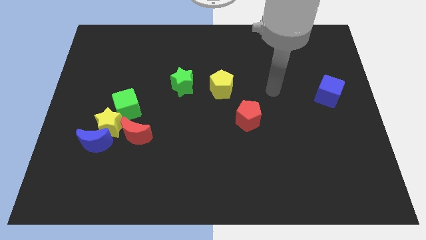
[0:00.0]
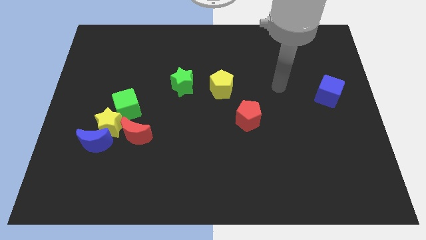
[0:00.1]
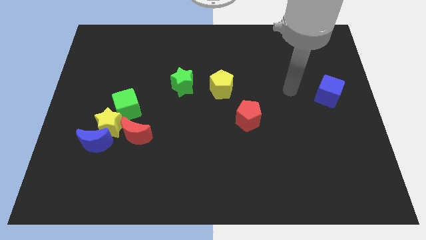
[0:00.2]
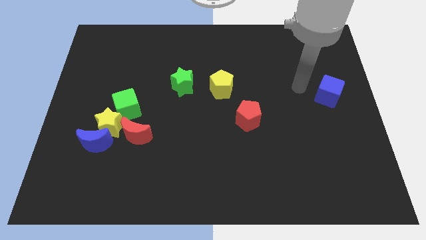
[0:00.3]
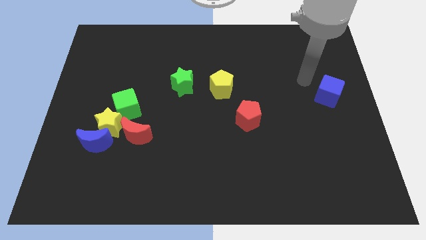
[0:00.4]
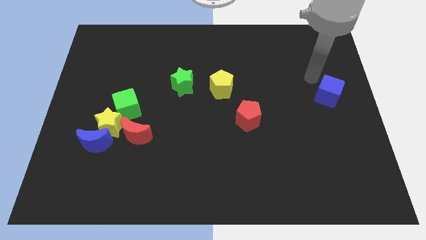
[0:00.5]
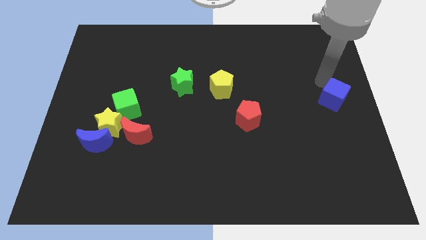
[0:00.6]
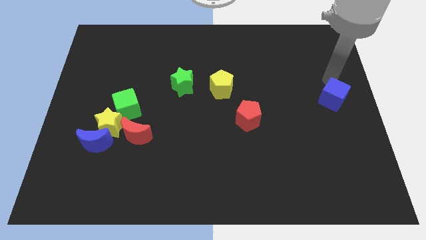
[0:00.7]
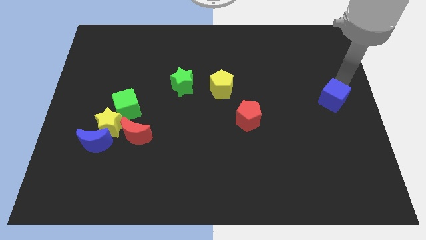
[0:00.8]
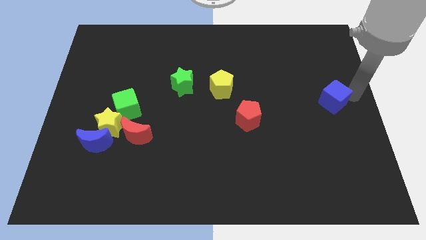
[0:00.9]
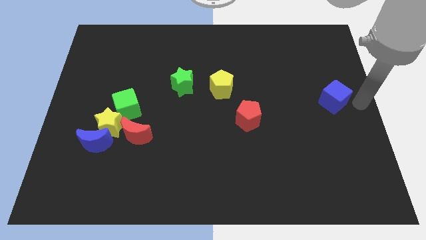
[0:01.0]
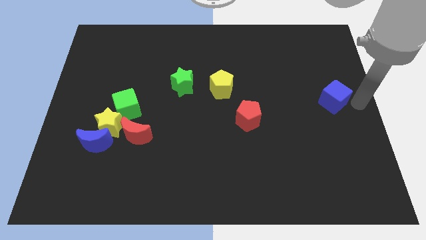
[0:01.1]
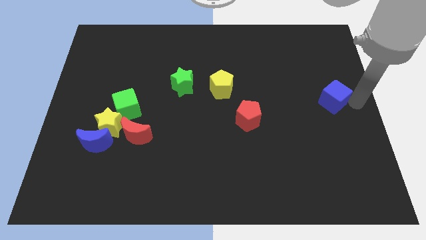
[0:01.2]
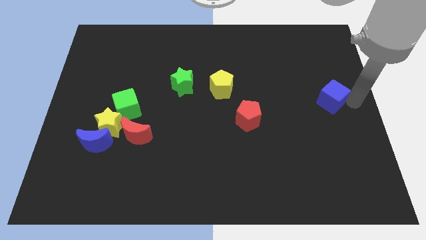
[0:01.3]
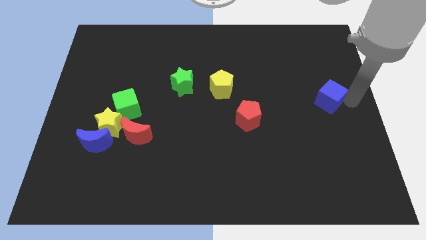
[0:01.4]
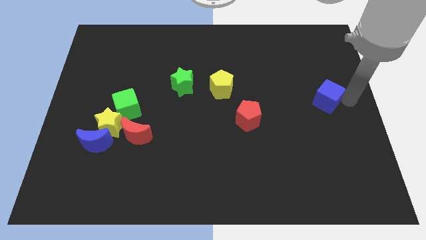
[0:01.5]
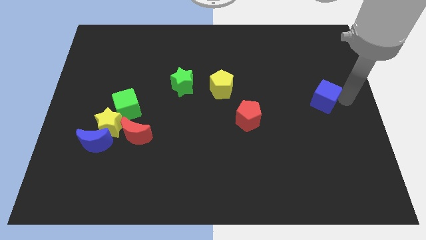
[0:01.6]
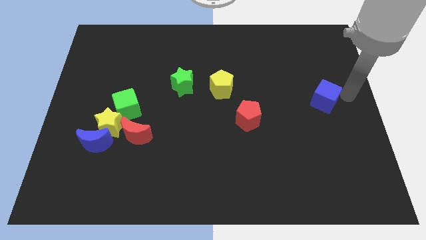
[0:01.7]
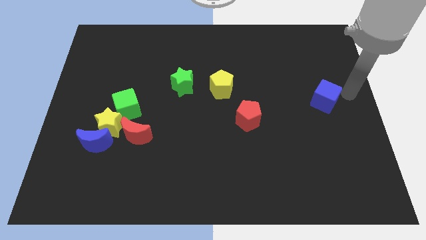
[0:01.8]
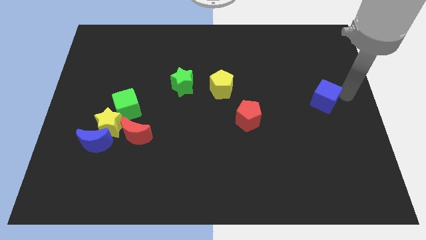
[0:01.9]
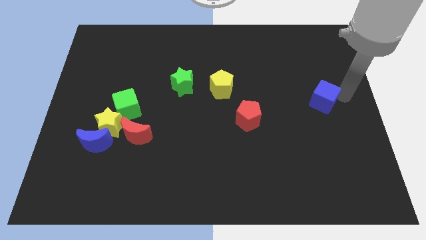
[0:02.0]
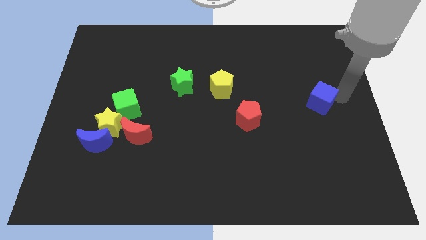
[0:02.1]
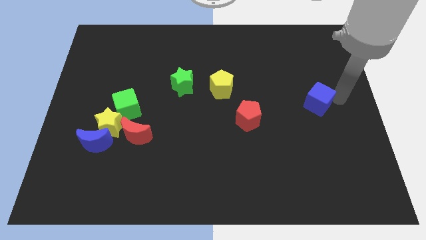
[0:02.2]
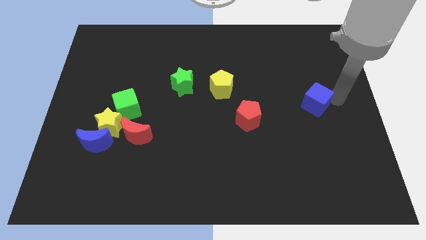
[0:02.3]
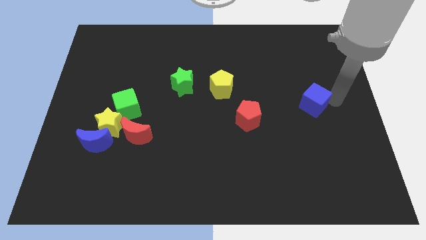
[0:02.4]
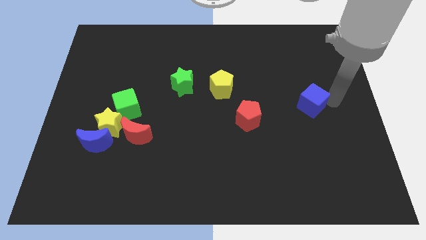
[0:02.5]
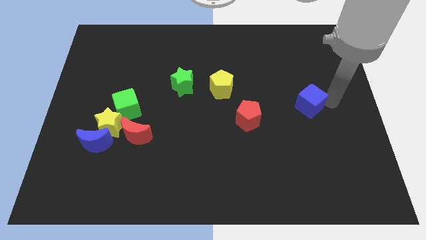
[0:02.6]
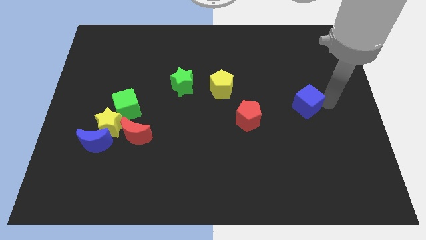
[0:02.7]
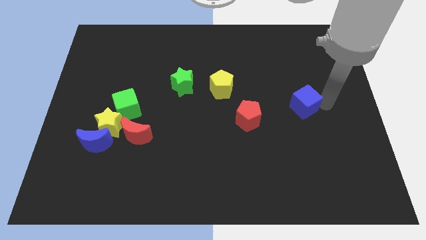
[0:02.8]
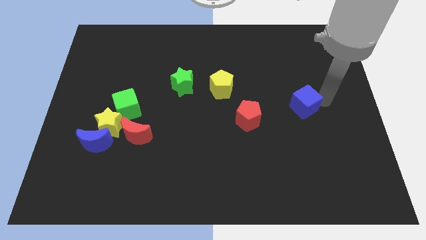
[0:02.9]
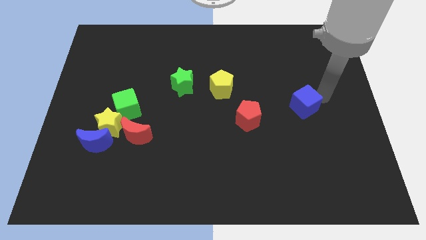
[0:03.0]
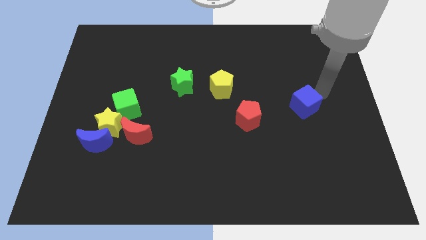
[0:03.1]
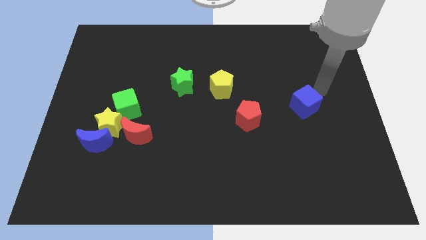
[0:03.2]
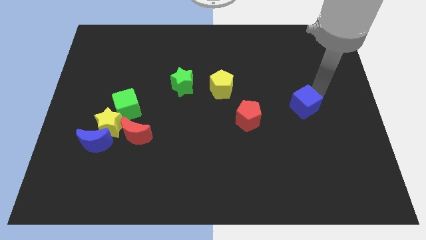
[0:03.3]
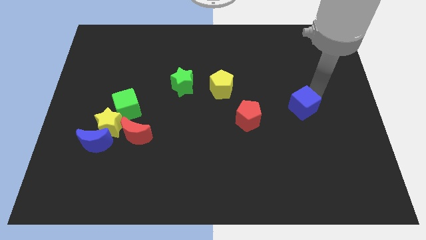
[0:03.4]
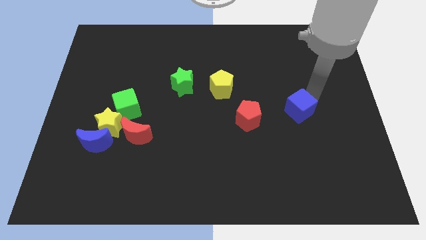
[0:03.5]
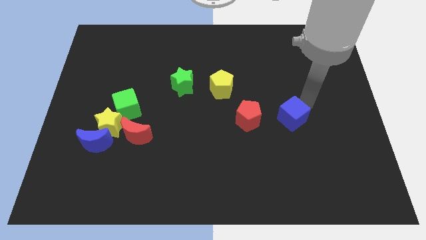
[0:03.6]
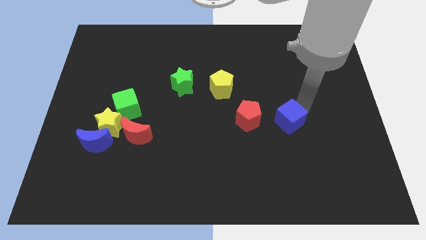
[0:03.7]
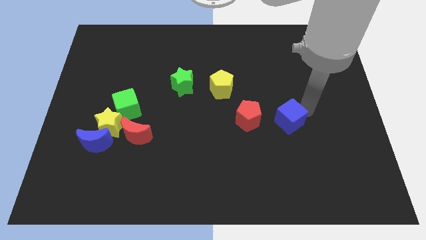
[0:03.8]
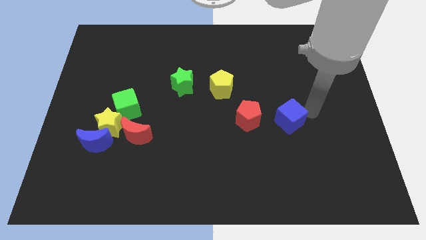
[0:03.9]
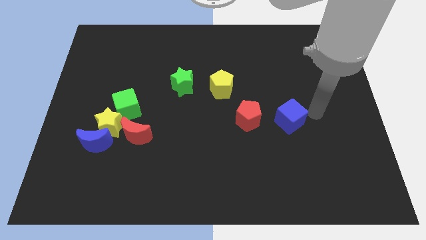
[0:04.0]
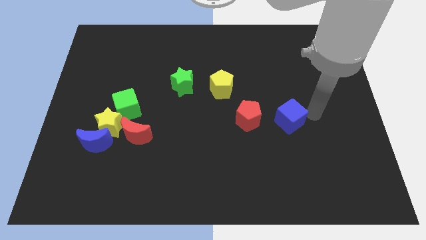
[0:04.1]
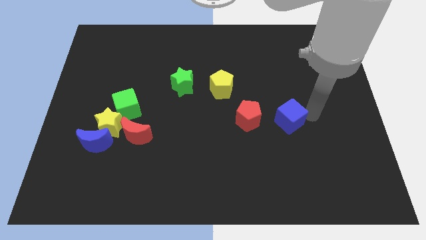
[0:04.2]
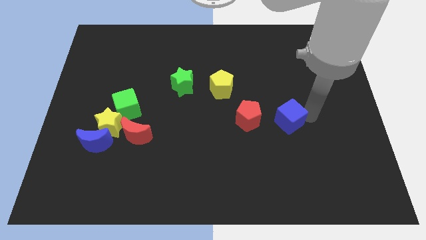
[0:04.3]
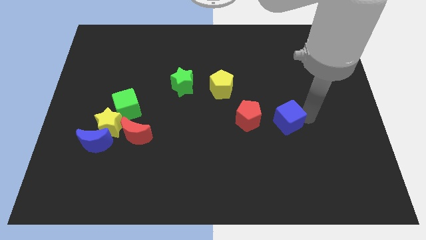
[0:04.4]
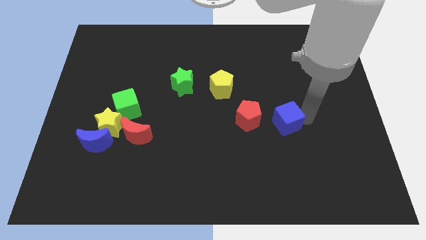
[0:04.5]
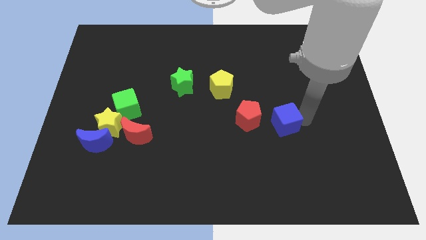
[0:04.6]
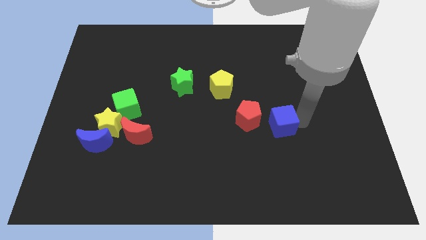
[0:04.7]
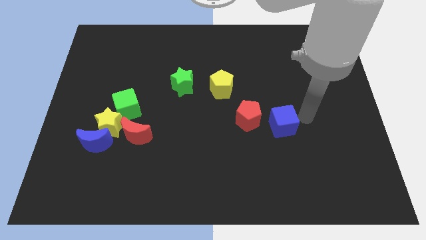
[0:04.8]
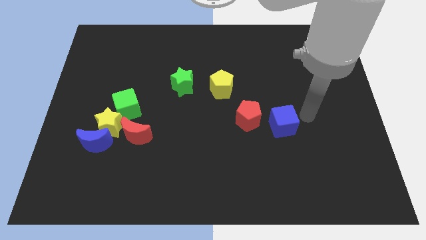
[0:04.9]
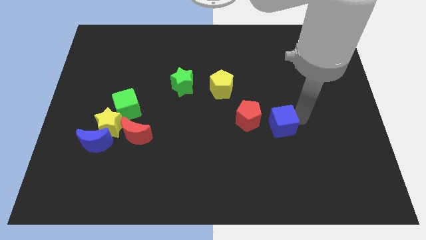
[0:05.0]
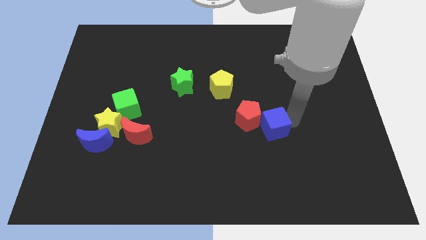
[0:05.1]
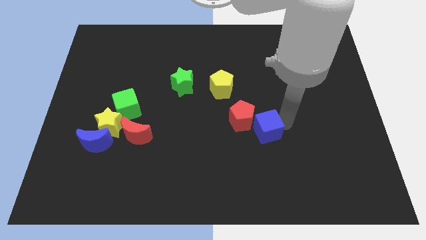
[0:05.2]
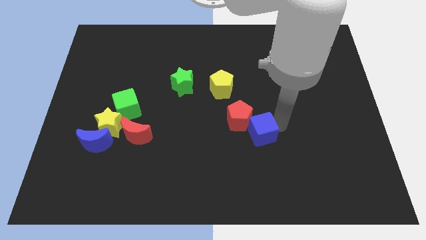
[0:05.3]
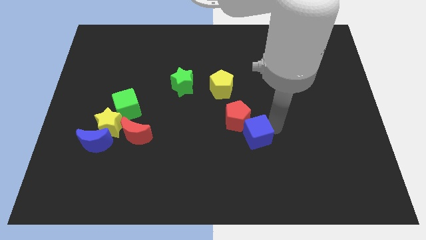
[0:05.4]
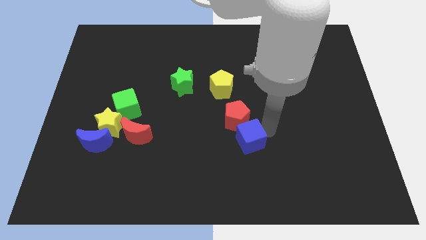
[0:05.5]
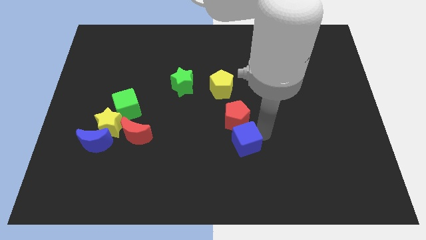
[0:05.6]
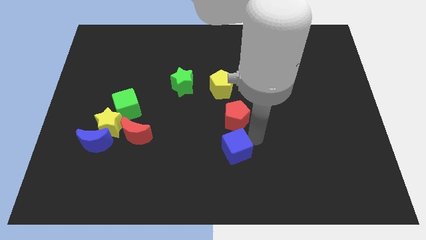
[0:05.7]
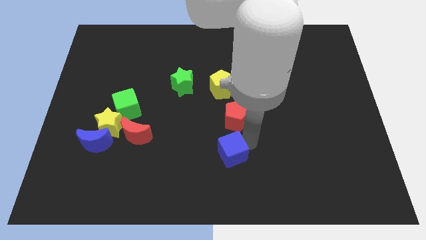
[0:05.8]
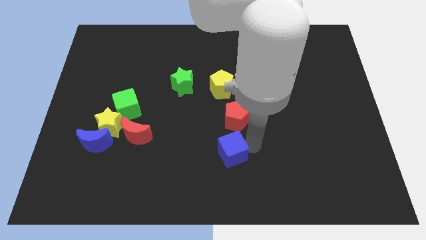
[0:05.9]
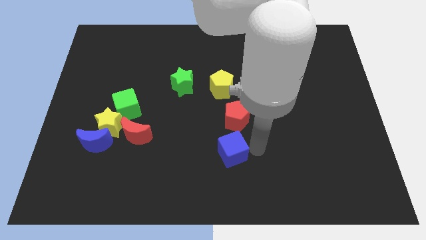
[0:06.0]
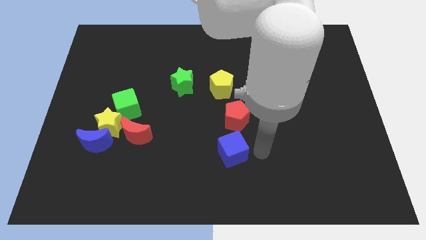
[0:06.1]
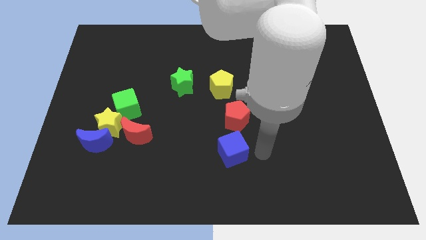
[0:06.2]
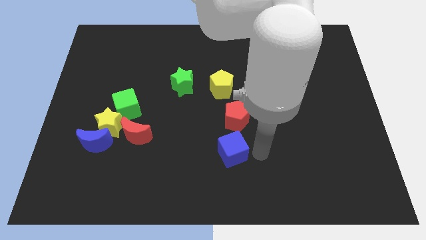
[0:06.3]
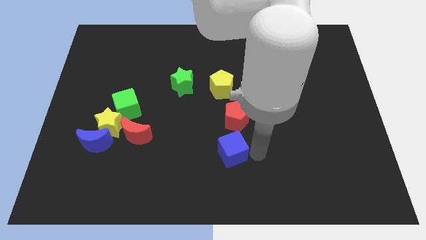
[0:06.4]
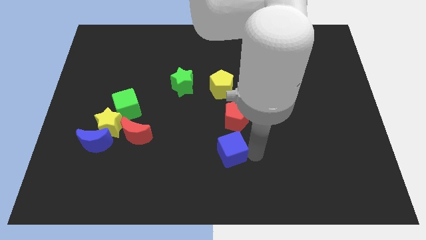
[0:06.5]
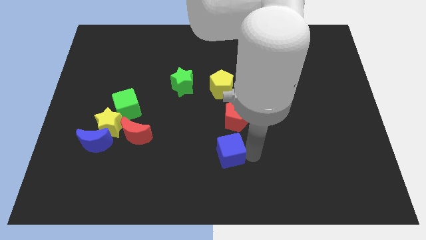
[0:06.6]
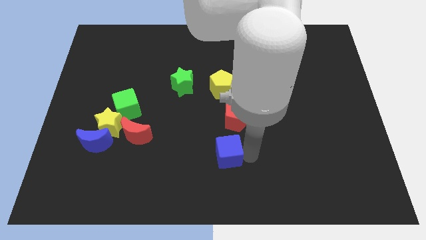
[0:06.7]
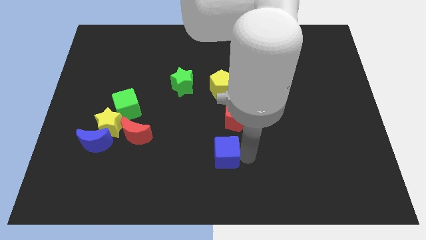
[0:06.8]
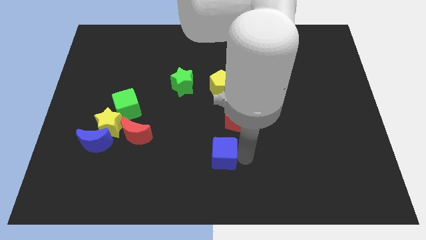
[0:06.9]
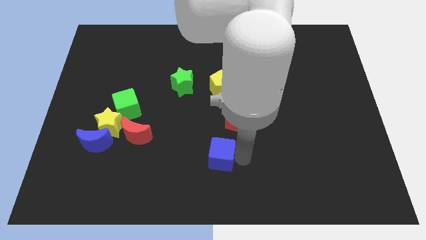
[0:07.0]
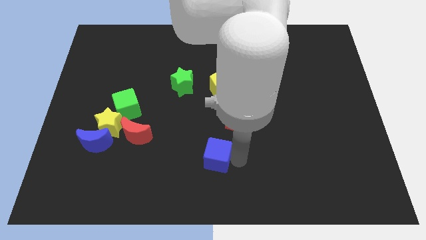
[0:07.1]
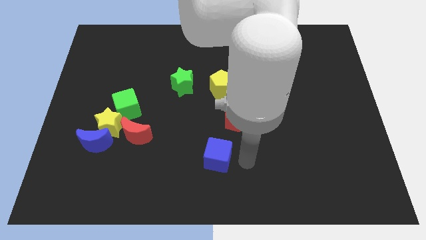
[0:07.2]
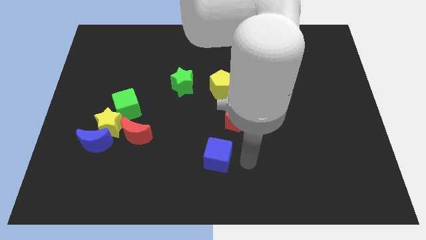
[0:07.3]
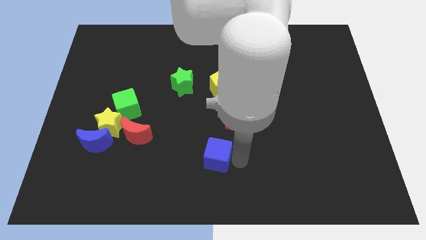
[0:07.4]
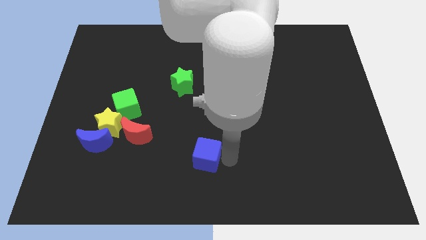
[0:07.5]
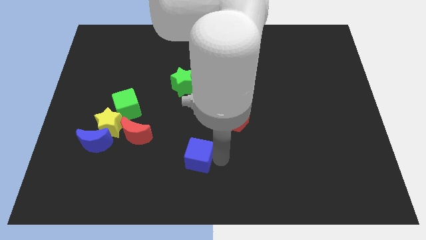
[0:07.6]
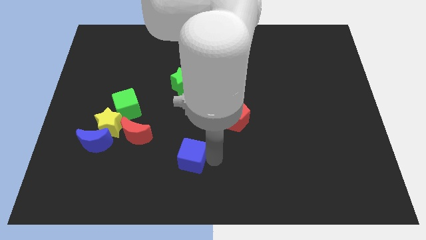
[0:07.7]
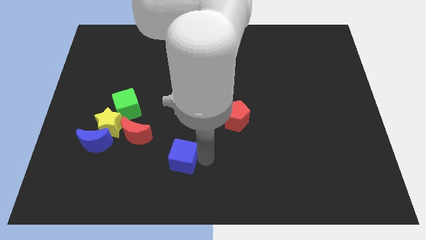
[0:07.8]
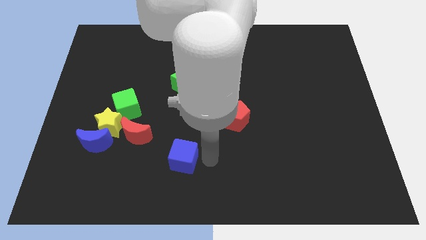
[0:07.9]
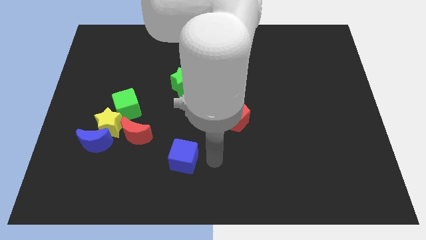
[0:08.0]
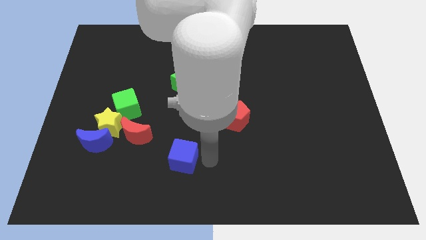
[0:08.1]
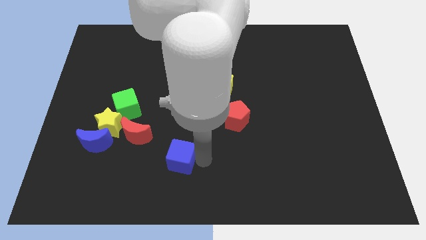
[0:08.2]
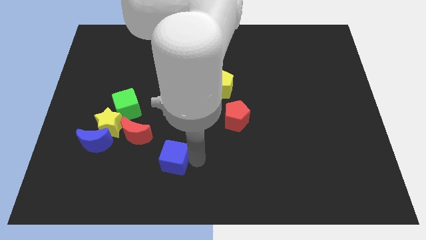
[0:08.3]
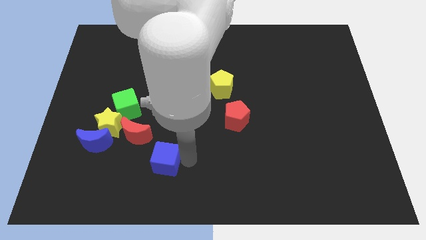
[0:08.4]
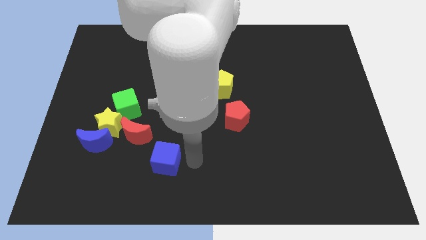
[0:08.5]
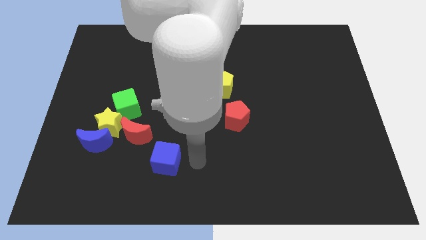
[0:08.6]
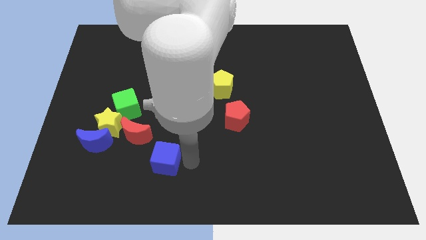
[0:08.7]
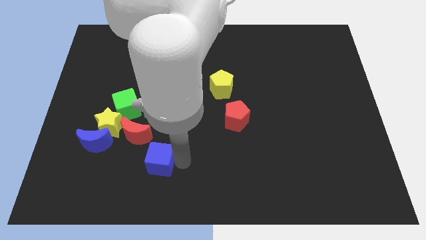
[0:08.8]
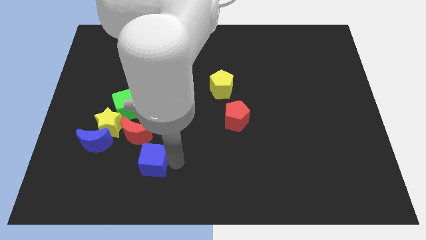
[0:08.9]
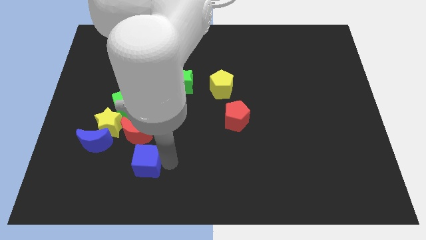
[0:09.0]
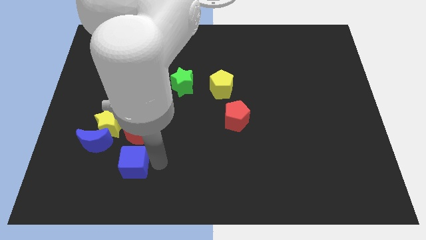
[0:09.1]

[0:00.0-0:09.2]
slide the blue cube to the bottom of the green cube
